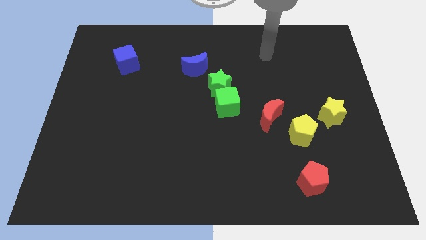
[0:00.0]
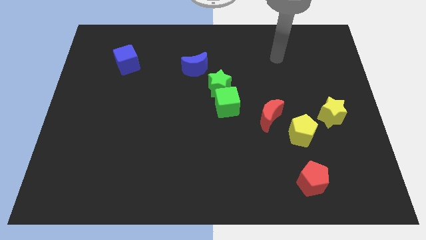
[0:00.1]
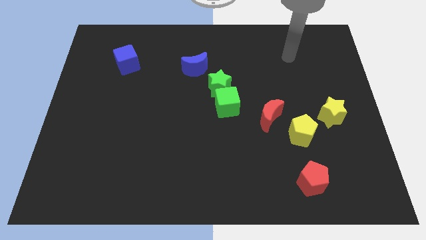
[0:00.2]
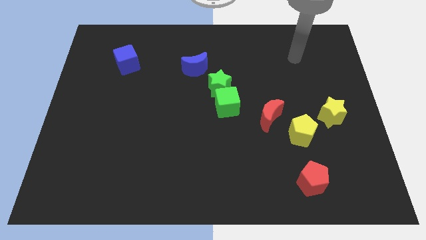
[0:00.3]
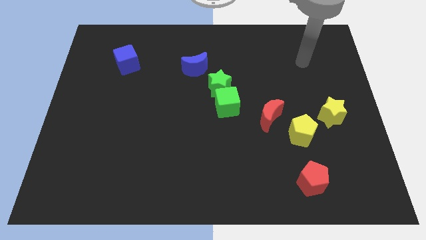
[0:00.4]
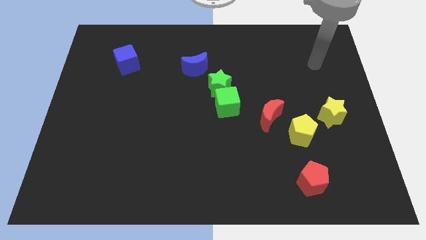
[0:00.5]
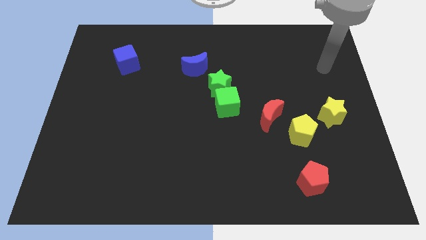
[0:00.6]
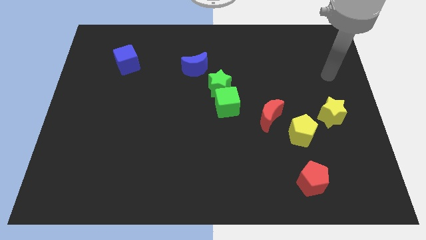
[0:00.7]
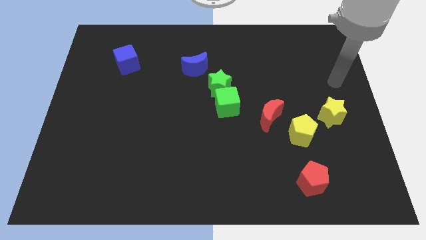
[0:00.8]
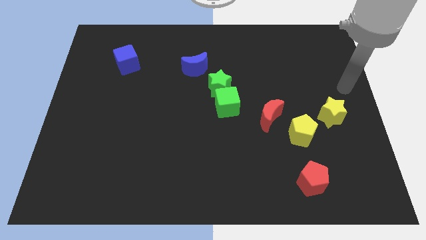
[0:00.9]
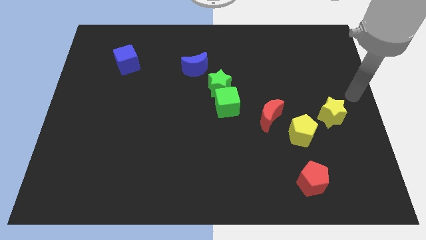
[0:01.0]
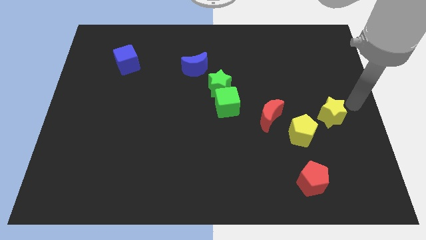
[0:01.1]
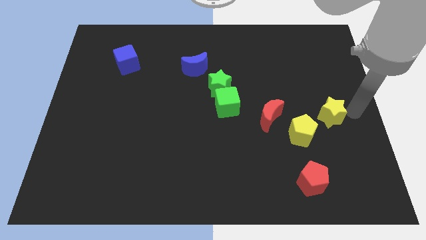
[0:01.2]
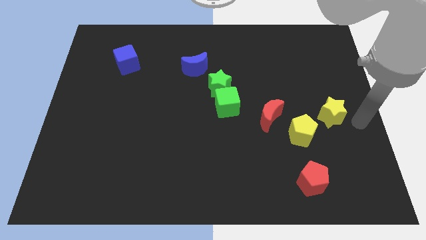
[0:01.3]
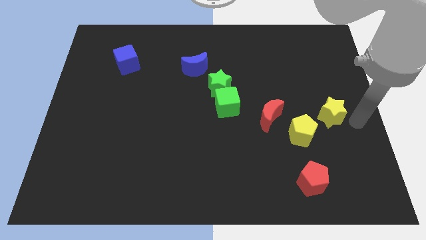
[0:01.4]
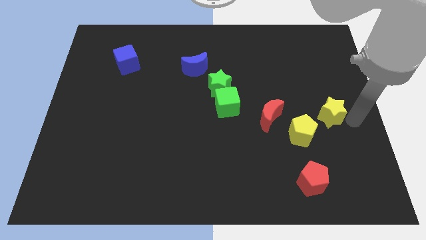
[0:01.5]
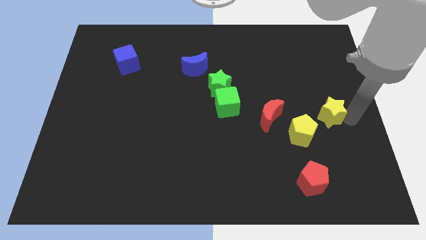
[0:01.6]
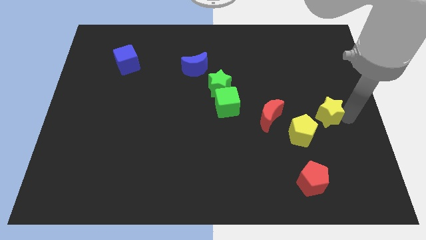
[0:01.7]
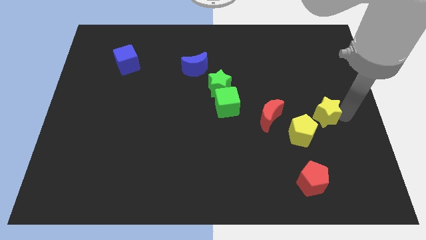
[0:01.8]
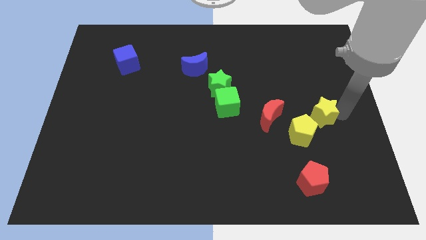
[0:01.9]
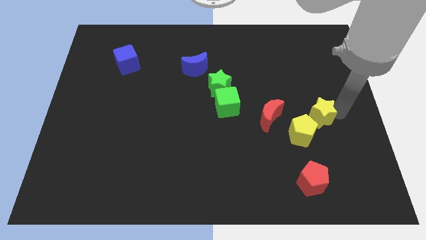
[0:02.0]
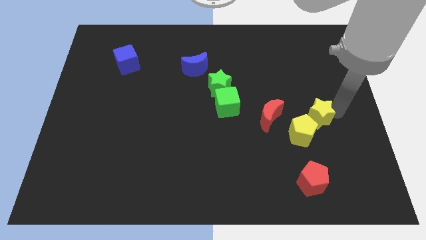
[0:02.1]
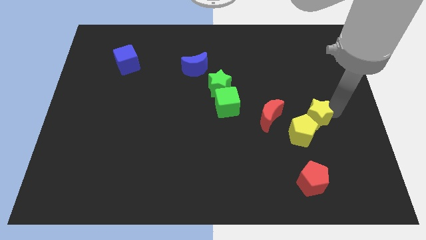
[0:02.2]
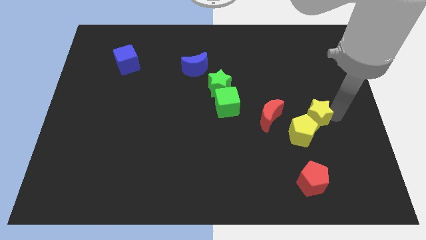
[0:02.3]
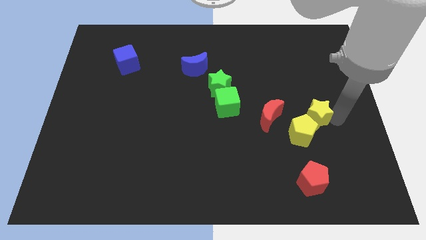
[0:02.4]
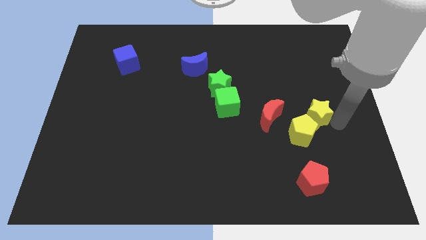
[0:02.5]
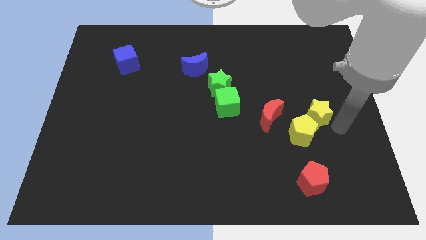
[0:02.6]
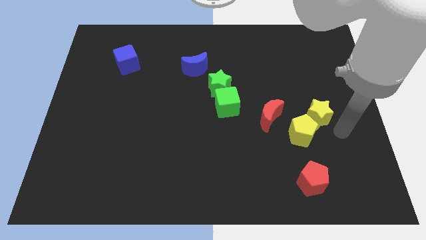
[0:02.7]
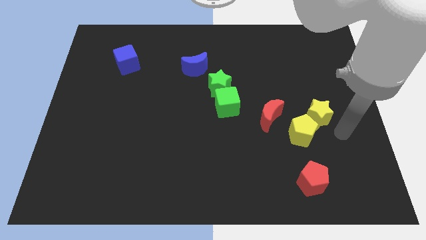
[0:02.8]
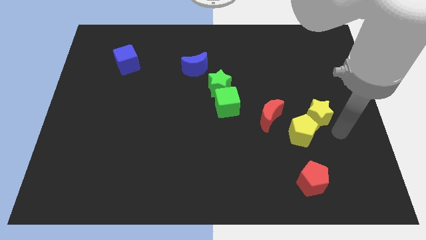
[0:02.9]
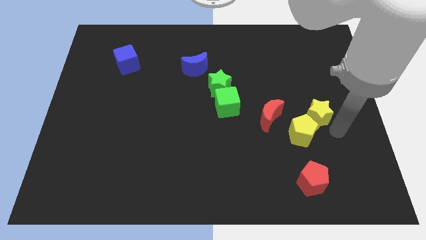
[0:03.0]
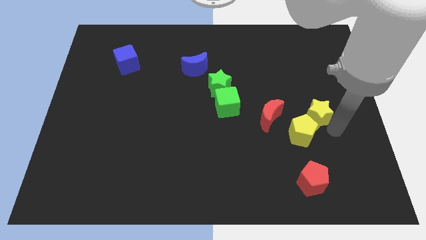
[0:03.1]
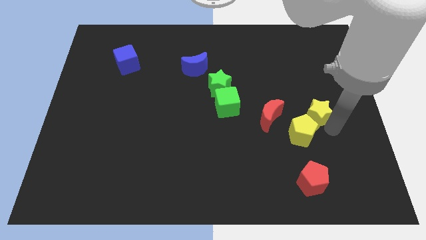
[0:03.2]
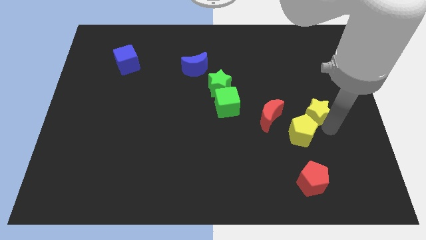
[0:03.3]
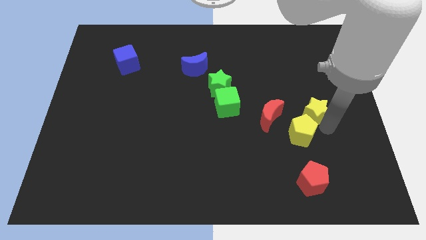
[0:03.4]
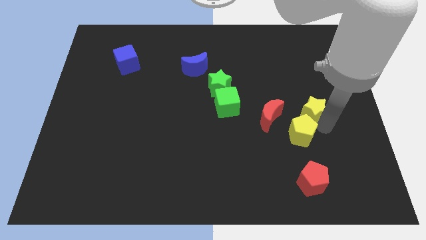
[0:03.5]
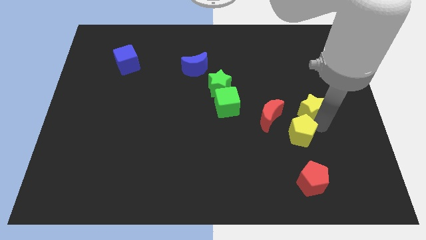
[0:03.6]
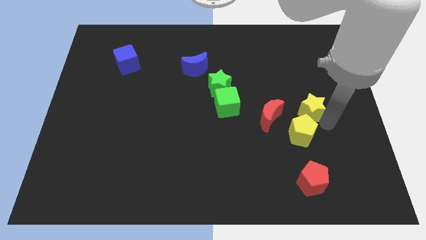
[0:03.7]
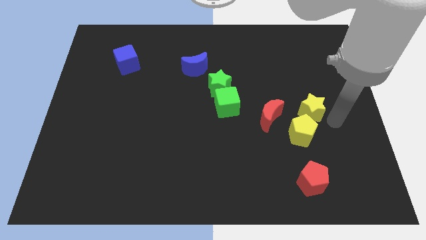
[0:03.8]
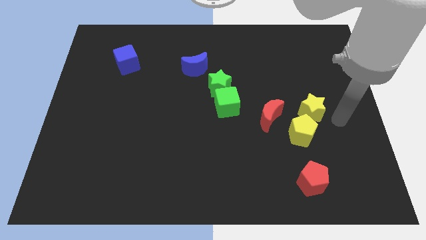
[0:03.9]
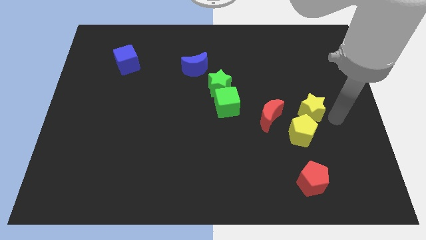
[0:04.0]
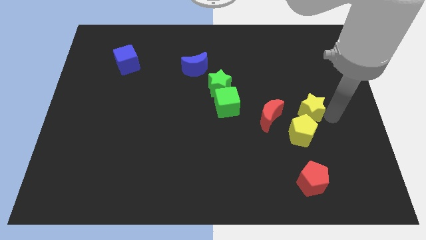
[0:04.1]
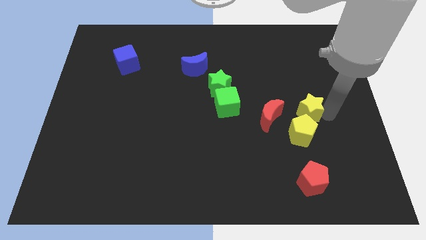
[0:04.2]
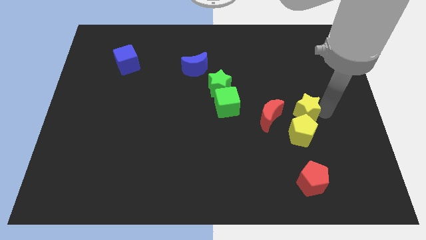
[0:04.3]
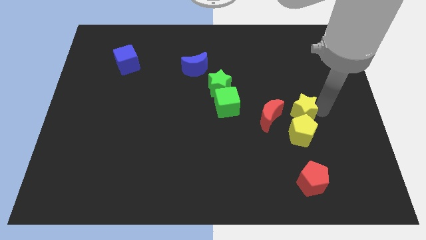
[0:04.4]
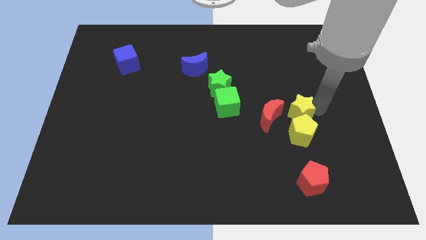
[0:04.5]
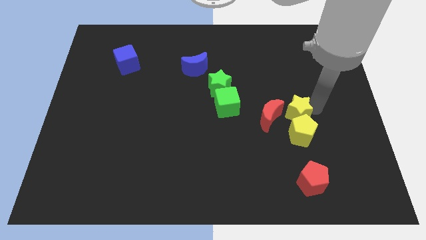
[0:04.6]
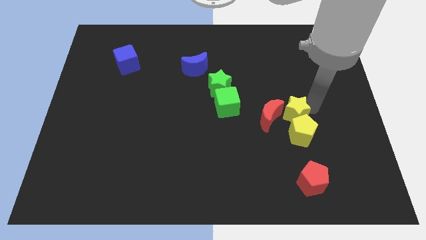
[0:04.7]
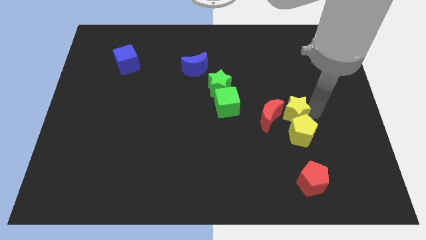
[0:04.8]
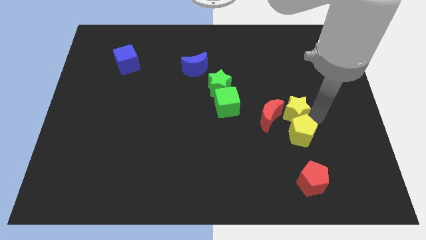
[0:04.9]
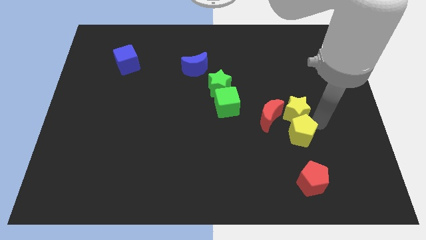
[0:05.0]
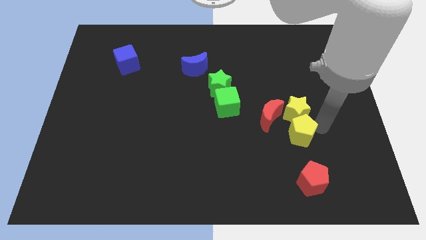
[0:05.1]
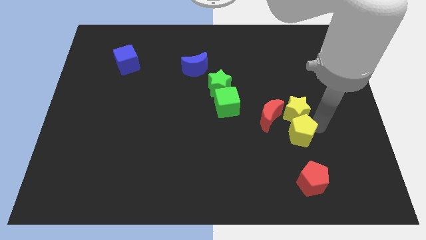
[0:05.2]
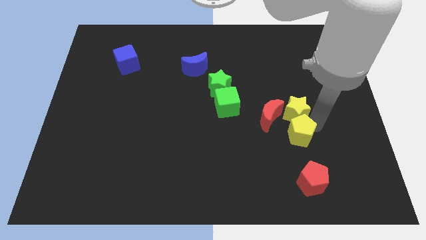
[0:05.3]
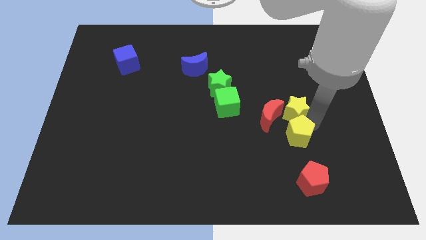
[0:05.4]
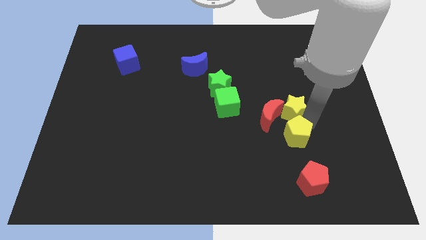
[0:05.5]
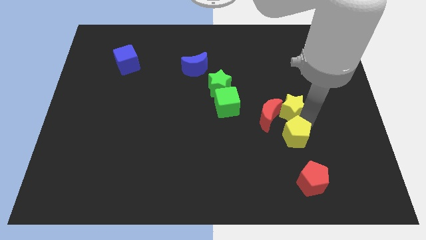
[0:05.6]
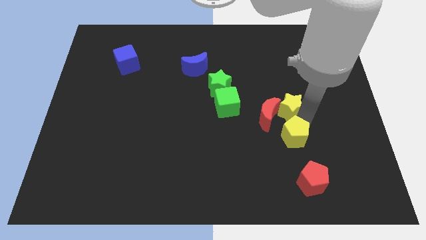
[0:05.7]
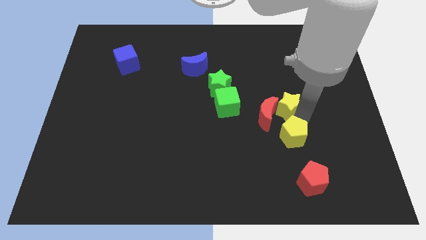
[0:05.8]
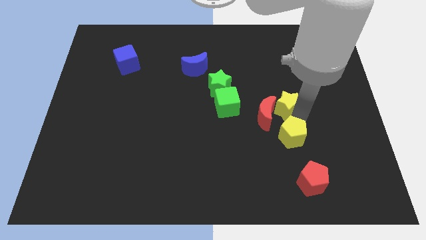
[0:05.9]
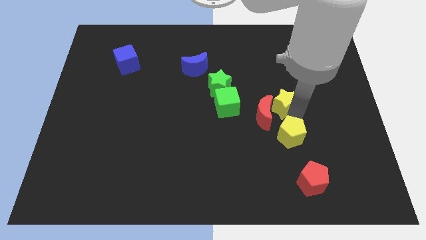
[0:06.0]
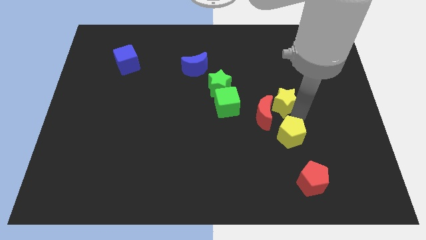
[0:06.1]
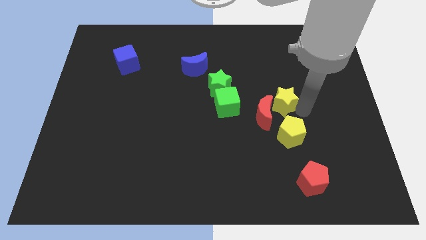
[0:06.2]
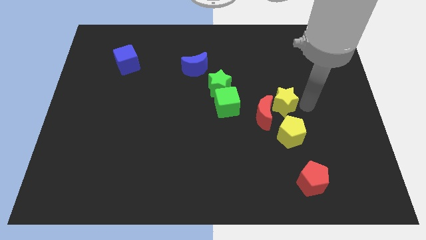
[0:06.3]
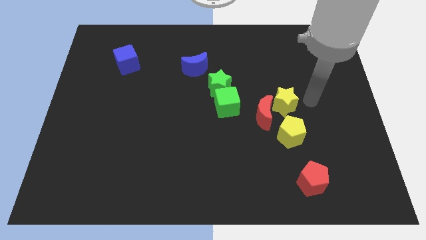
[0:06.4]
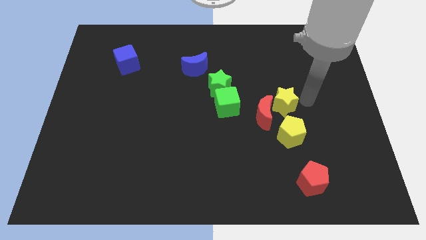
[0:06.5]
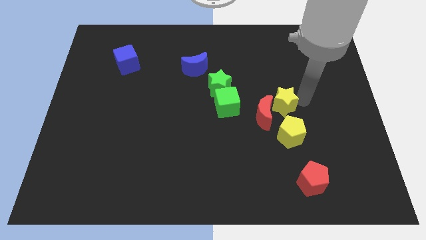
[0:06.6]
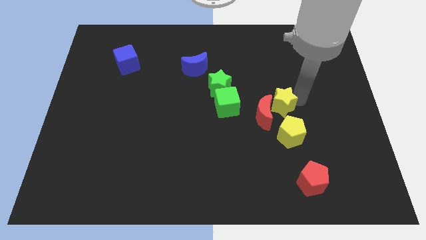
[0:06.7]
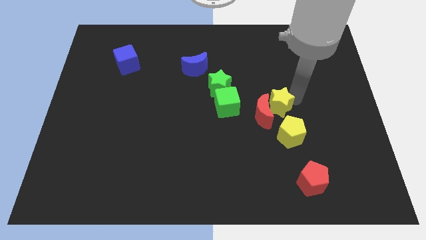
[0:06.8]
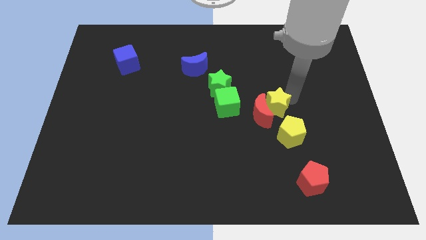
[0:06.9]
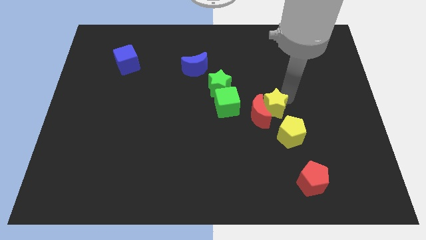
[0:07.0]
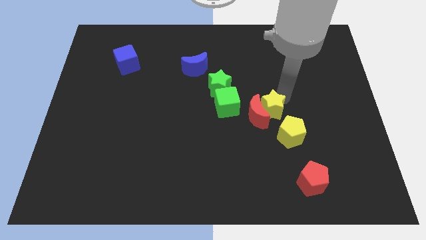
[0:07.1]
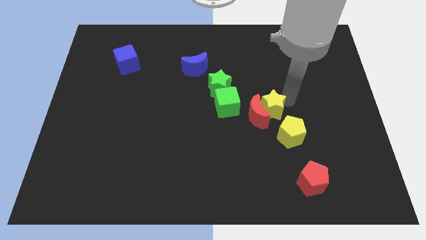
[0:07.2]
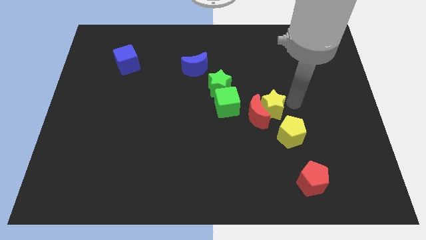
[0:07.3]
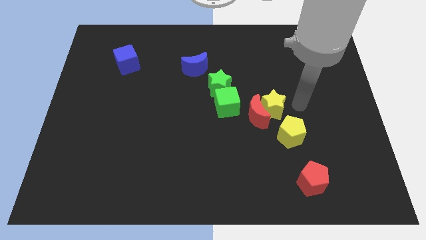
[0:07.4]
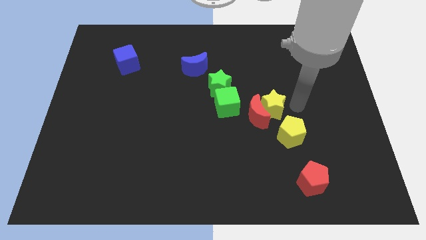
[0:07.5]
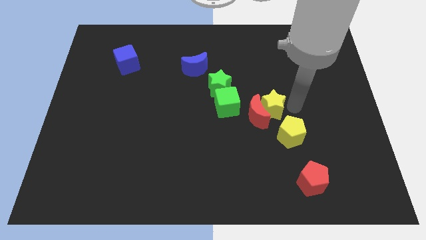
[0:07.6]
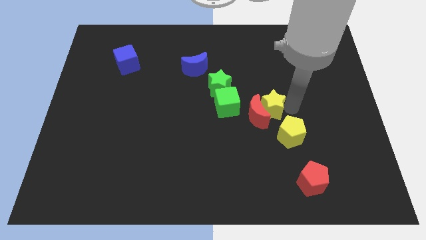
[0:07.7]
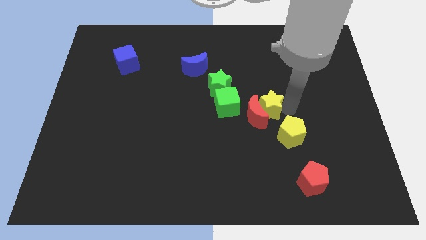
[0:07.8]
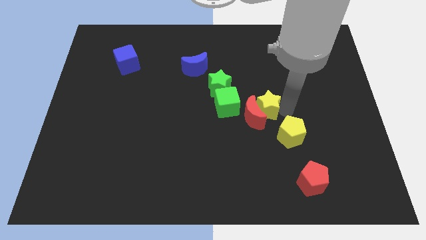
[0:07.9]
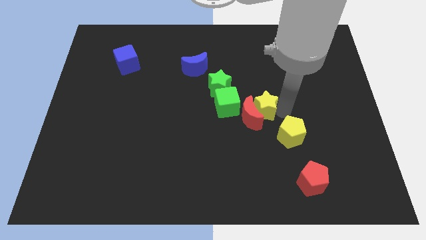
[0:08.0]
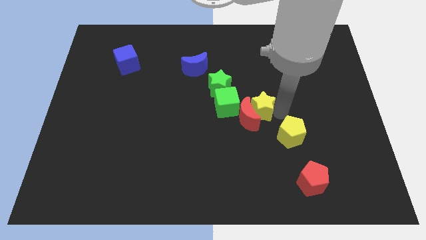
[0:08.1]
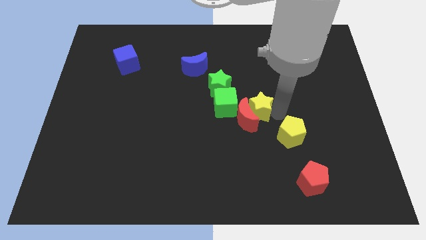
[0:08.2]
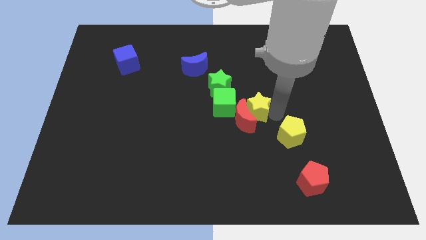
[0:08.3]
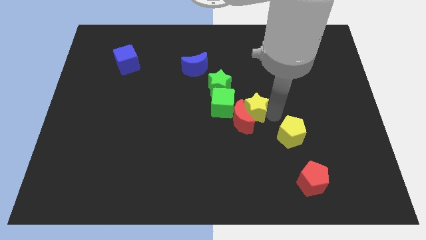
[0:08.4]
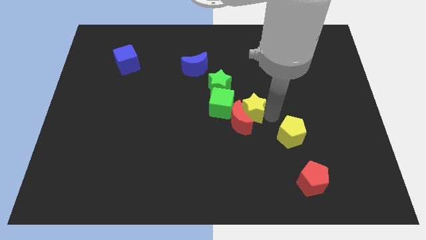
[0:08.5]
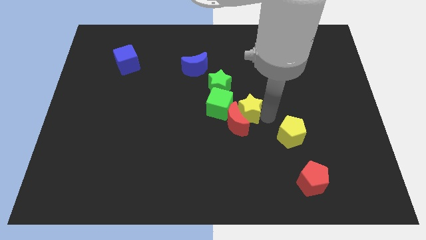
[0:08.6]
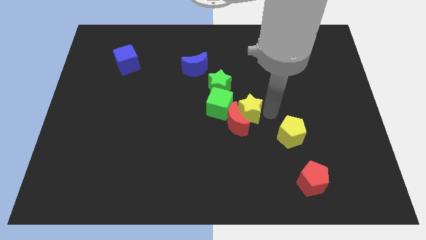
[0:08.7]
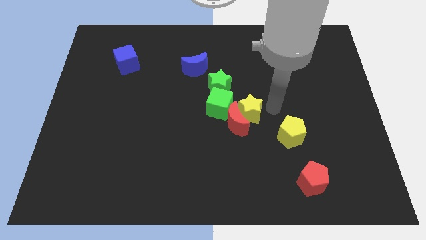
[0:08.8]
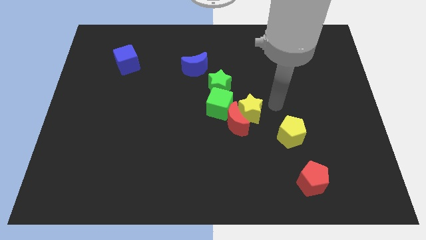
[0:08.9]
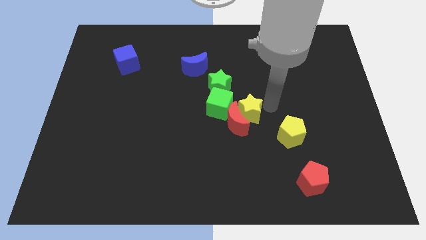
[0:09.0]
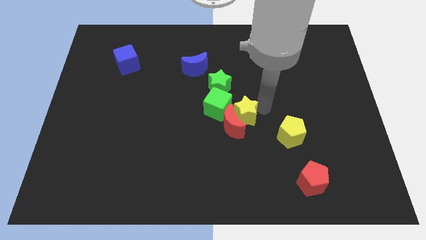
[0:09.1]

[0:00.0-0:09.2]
slide the yellow star to the left
